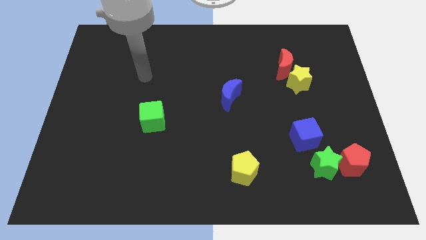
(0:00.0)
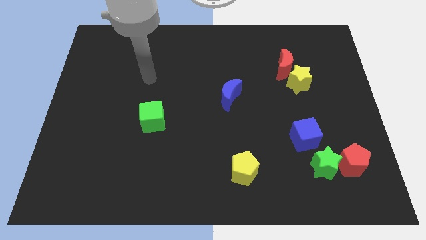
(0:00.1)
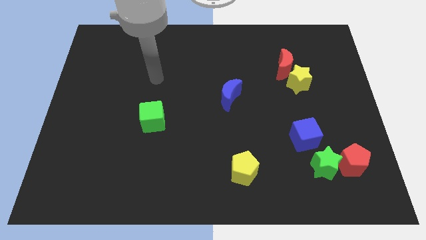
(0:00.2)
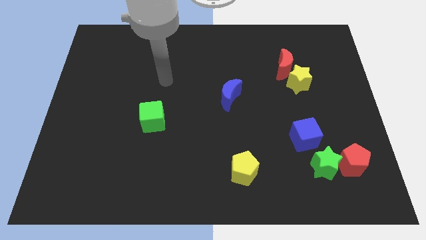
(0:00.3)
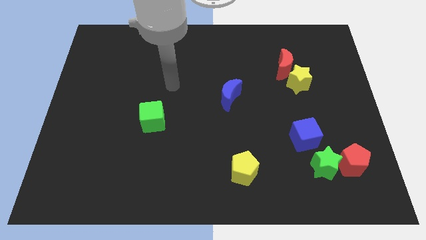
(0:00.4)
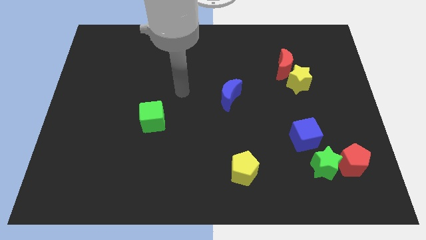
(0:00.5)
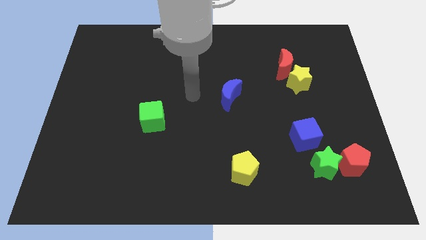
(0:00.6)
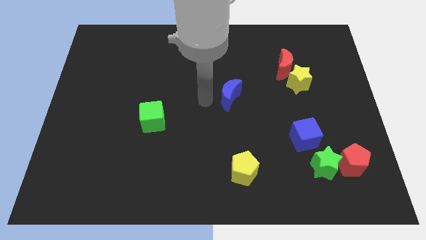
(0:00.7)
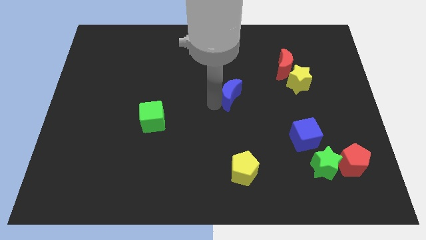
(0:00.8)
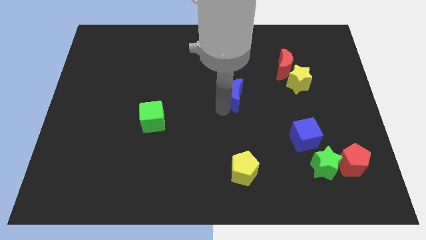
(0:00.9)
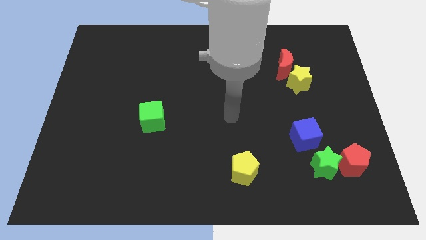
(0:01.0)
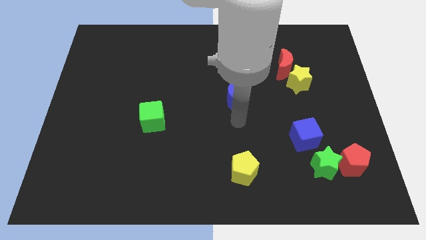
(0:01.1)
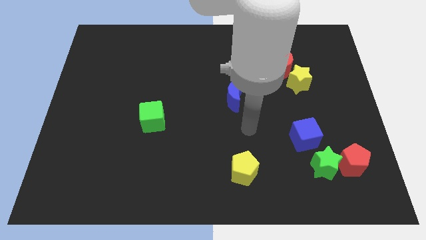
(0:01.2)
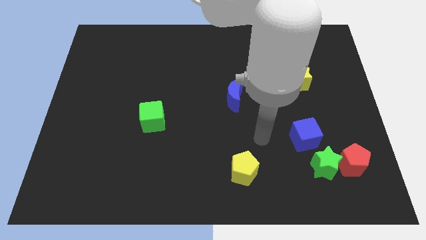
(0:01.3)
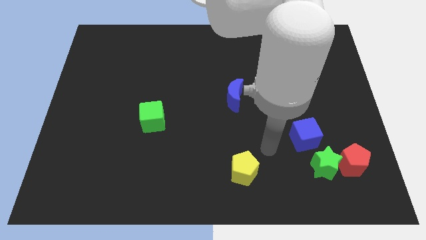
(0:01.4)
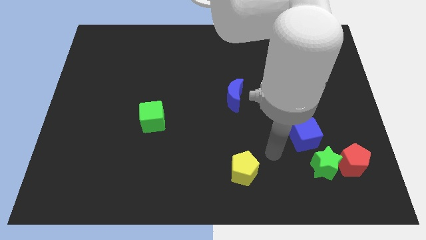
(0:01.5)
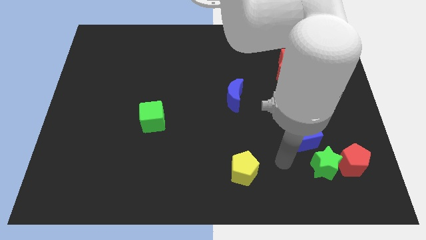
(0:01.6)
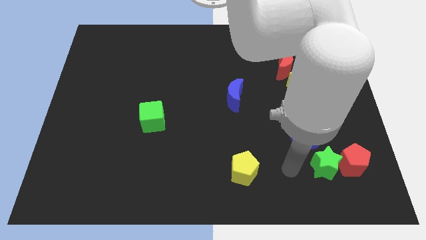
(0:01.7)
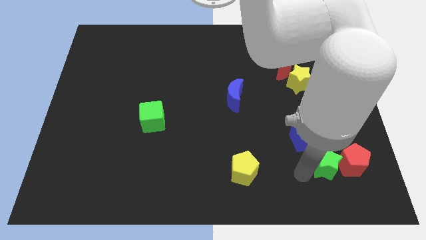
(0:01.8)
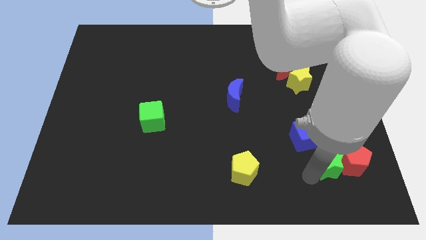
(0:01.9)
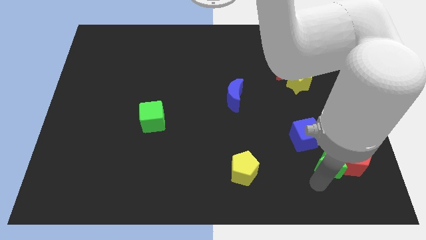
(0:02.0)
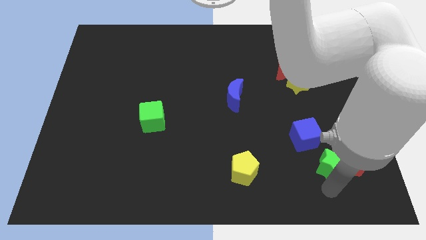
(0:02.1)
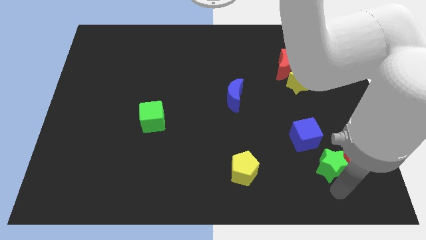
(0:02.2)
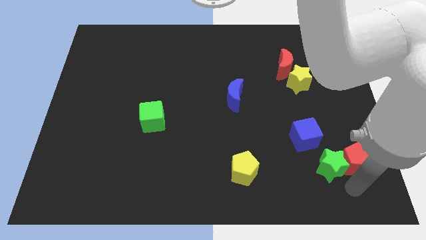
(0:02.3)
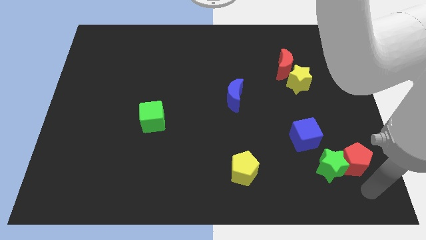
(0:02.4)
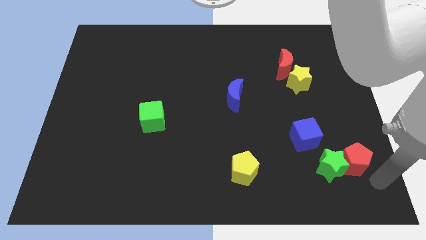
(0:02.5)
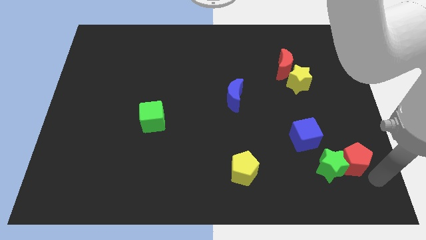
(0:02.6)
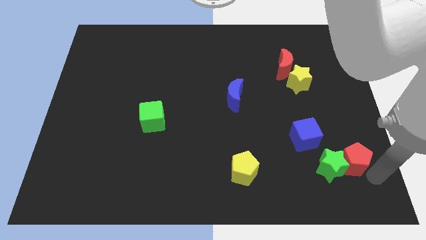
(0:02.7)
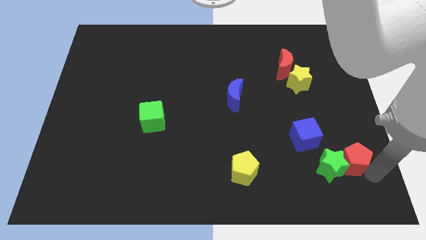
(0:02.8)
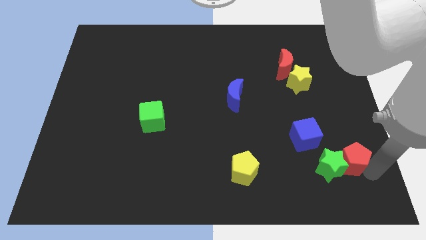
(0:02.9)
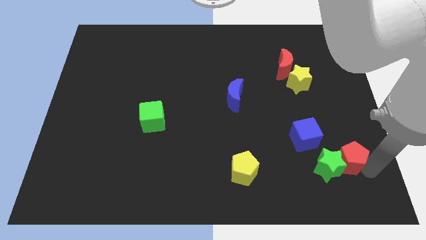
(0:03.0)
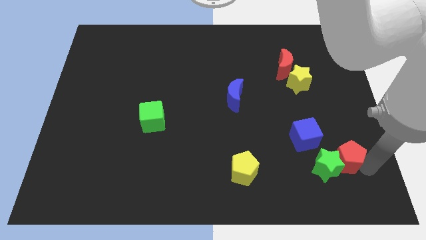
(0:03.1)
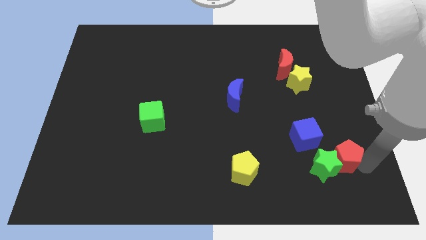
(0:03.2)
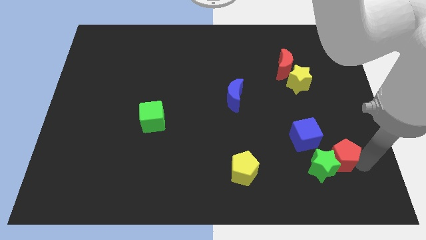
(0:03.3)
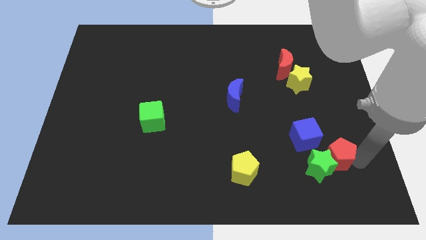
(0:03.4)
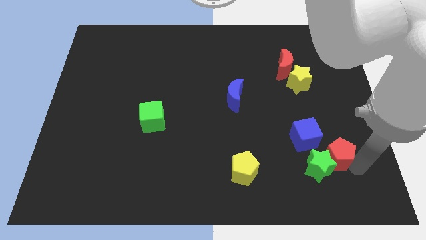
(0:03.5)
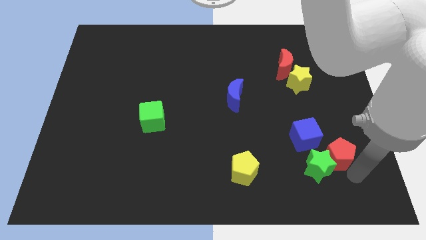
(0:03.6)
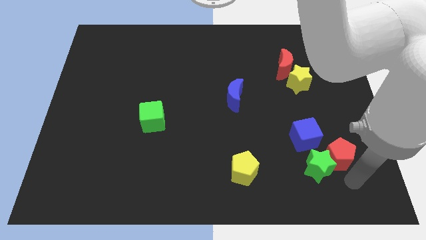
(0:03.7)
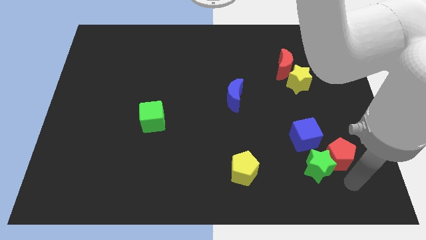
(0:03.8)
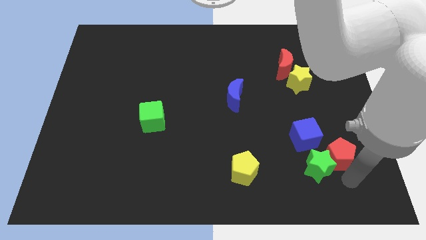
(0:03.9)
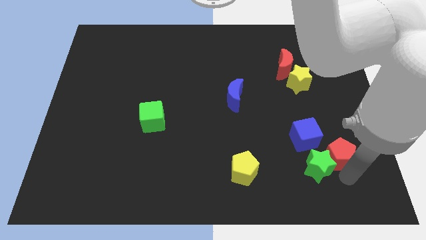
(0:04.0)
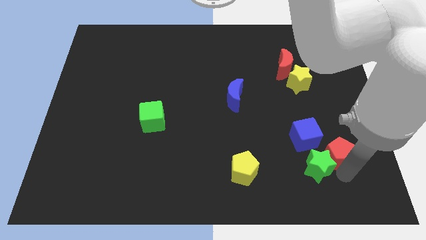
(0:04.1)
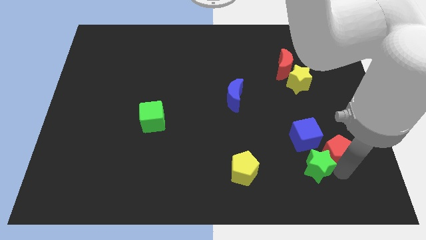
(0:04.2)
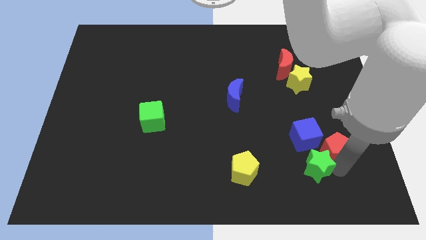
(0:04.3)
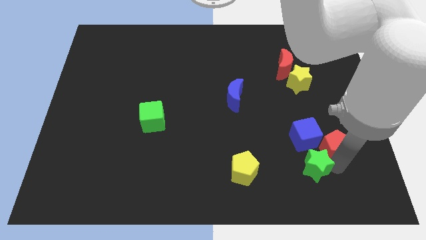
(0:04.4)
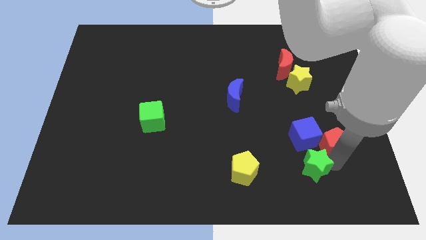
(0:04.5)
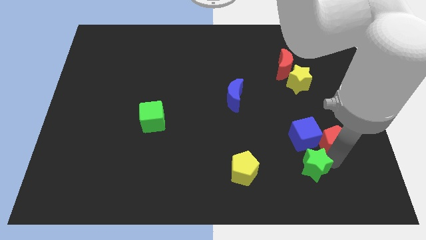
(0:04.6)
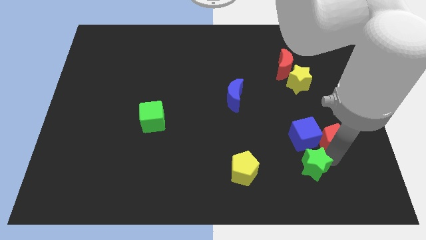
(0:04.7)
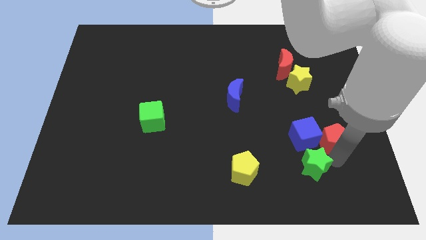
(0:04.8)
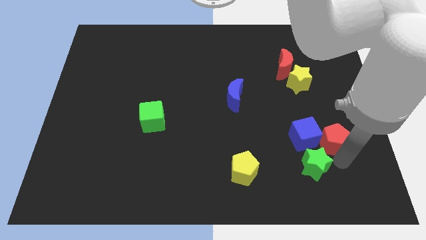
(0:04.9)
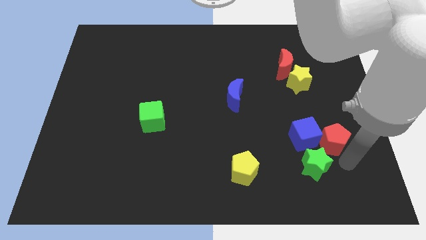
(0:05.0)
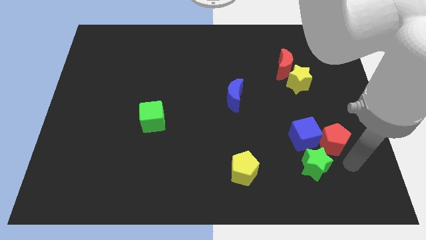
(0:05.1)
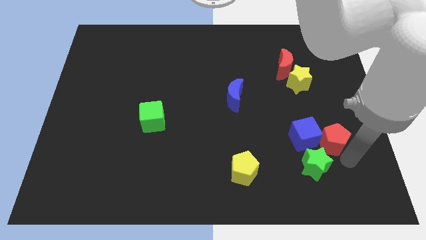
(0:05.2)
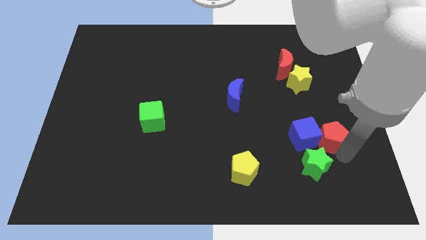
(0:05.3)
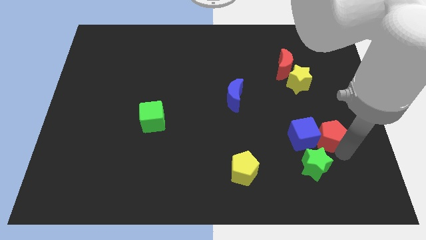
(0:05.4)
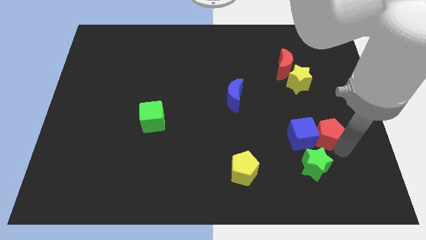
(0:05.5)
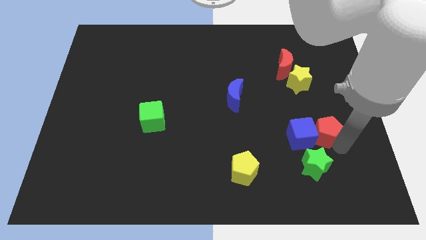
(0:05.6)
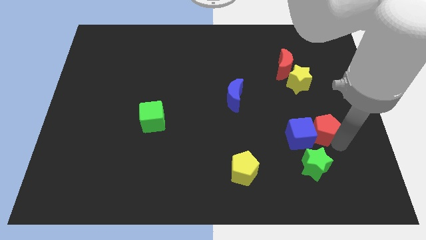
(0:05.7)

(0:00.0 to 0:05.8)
slide the red pentagon to the bottom side of the yellow star

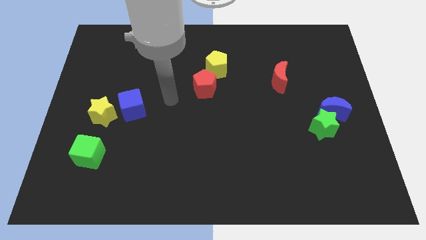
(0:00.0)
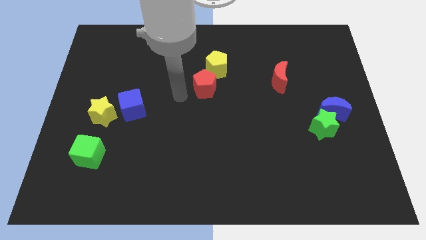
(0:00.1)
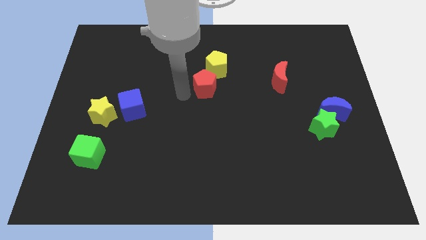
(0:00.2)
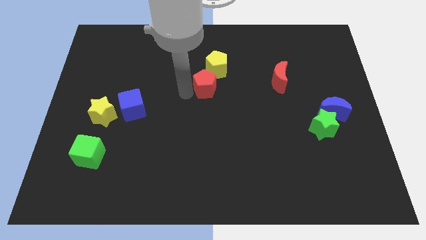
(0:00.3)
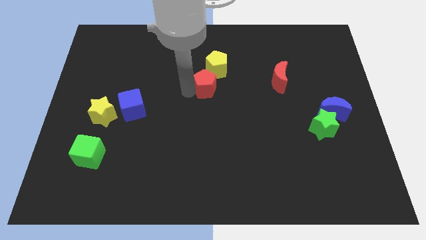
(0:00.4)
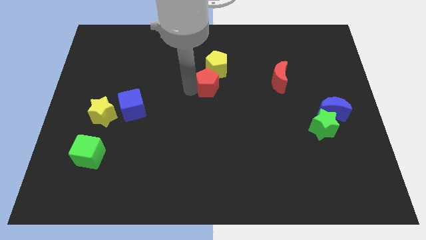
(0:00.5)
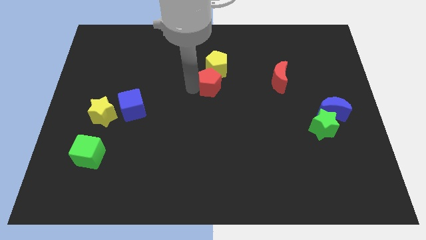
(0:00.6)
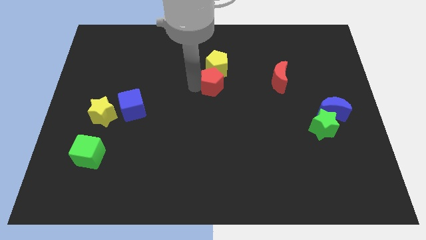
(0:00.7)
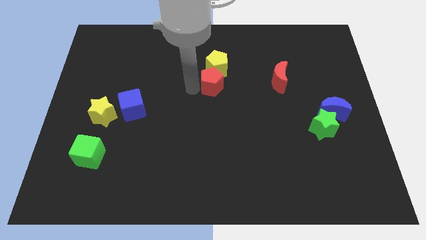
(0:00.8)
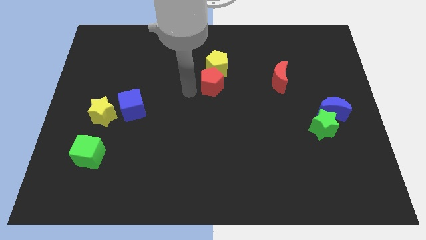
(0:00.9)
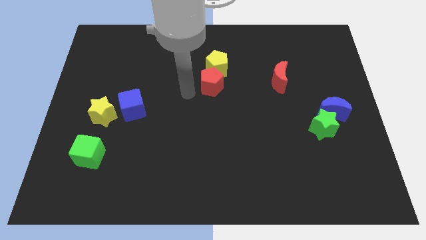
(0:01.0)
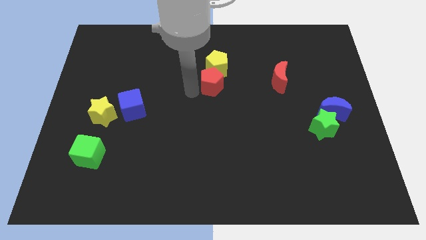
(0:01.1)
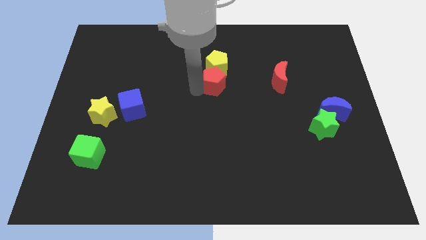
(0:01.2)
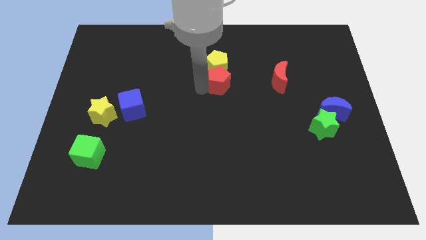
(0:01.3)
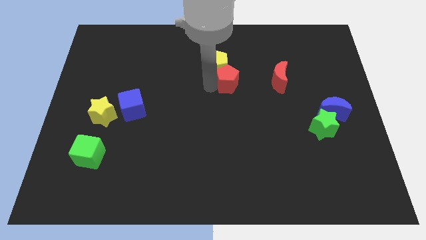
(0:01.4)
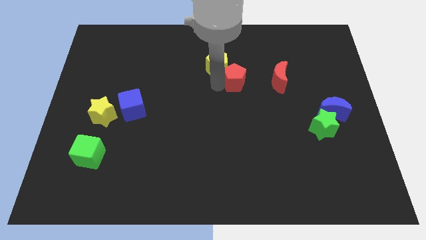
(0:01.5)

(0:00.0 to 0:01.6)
move the red pentagon right of the yellow pentagon
